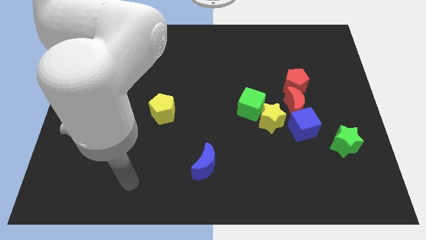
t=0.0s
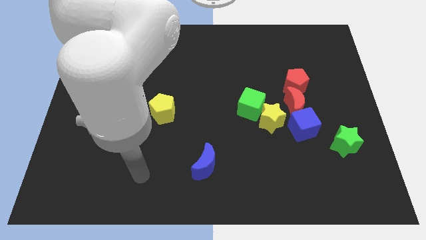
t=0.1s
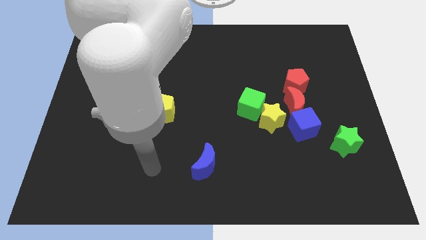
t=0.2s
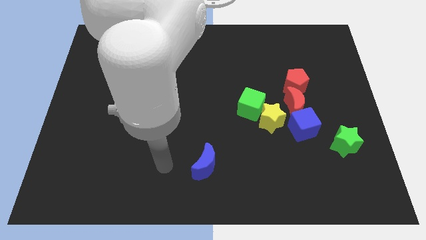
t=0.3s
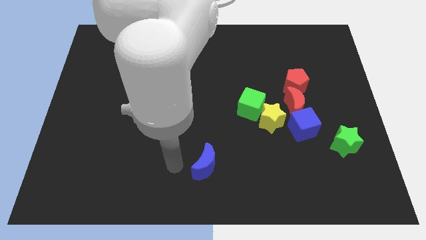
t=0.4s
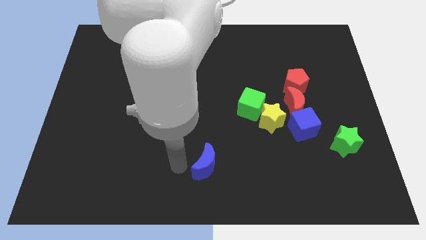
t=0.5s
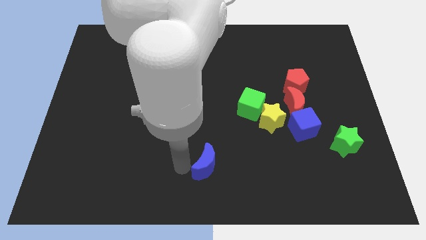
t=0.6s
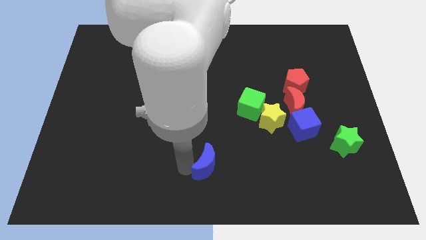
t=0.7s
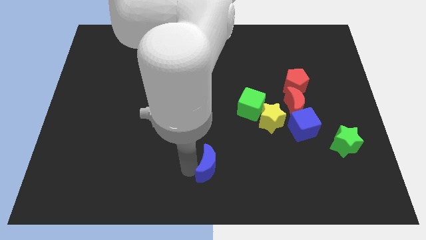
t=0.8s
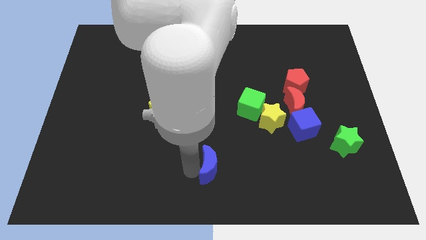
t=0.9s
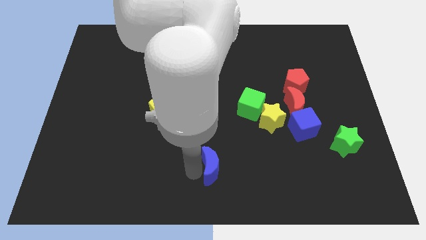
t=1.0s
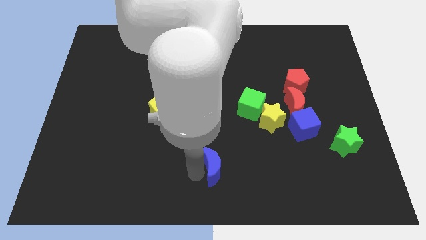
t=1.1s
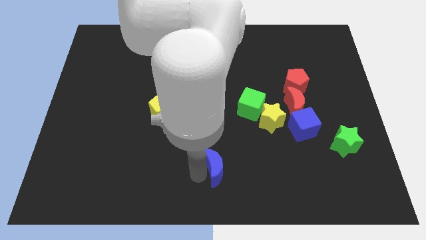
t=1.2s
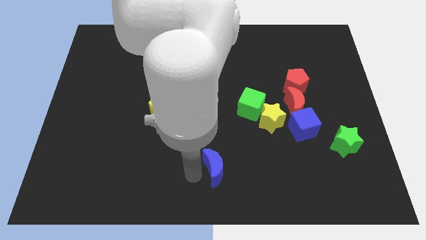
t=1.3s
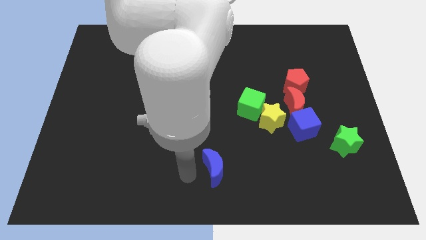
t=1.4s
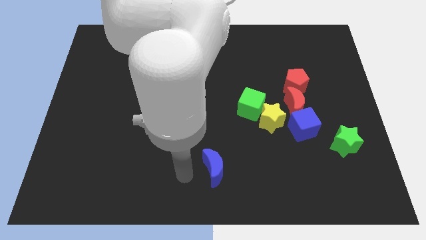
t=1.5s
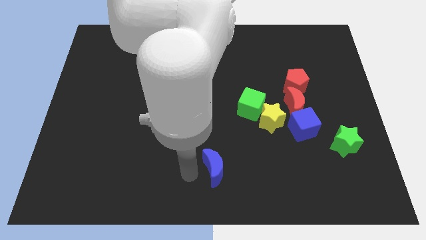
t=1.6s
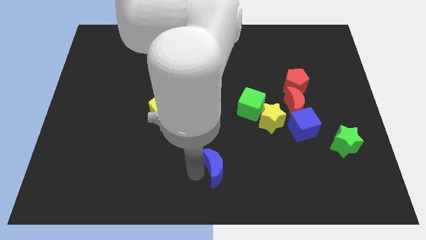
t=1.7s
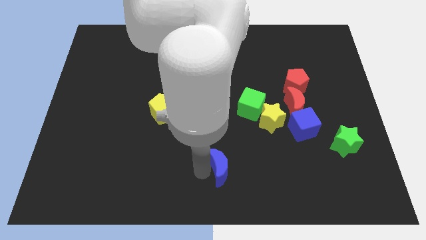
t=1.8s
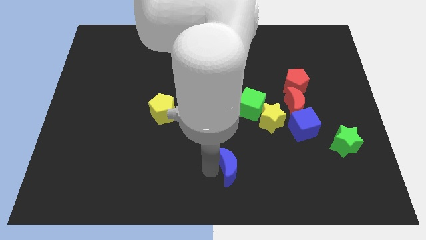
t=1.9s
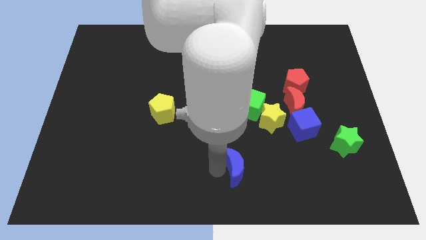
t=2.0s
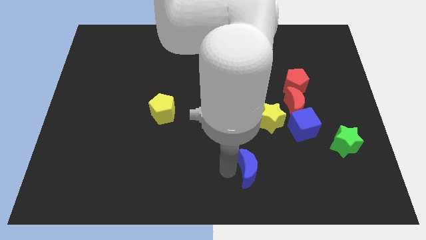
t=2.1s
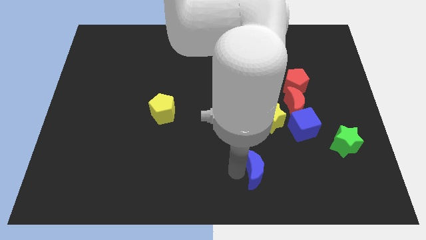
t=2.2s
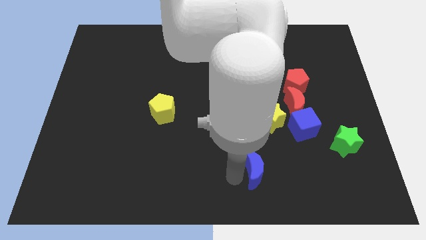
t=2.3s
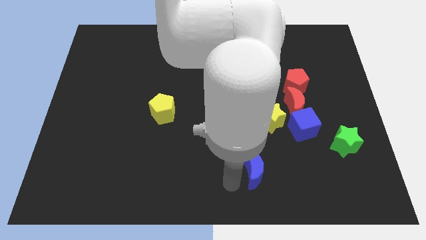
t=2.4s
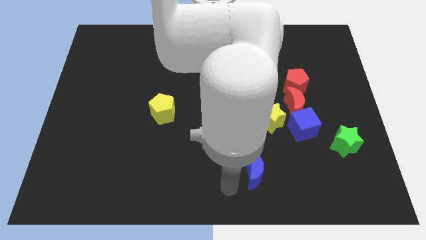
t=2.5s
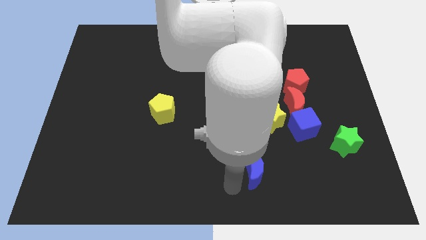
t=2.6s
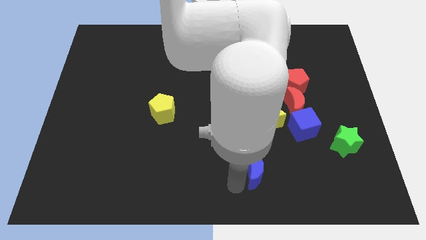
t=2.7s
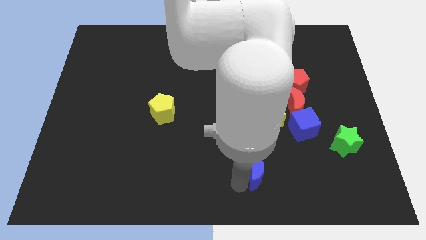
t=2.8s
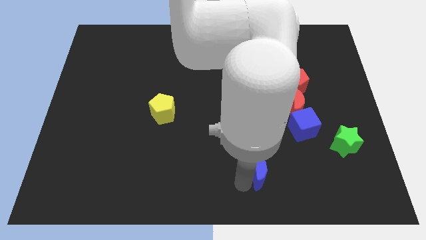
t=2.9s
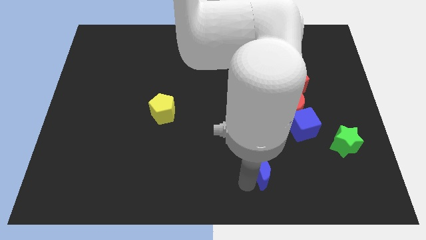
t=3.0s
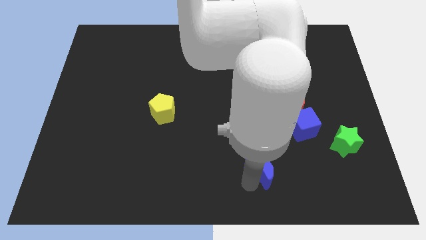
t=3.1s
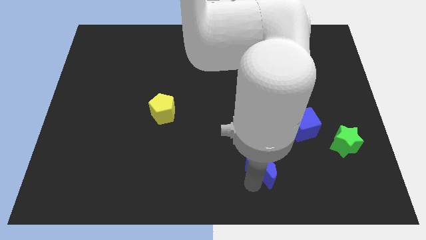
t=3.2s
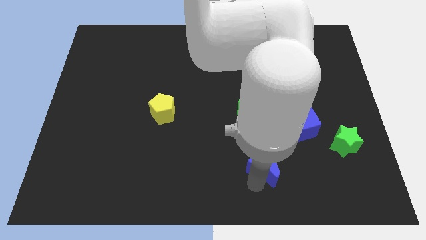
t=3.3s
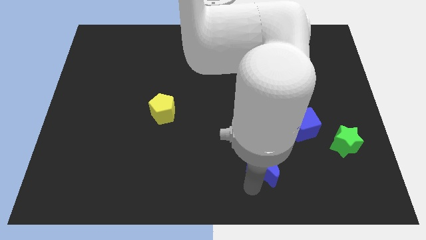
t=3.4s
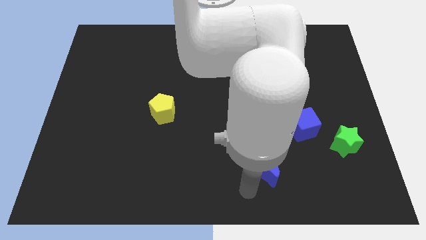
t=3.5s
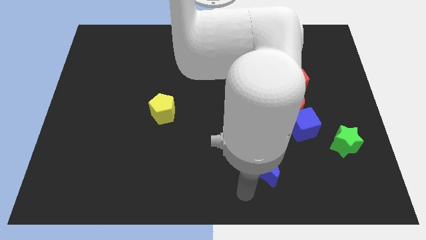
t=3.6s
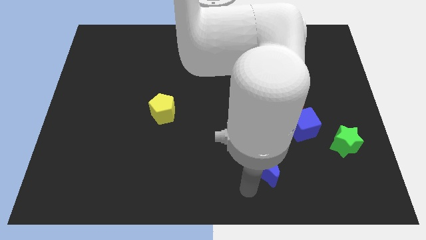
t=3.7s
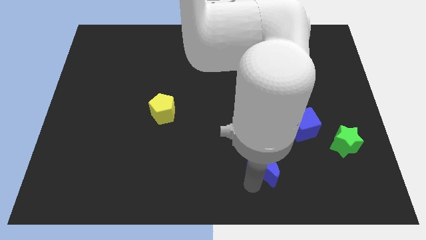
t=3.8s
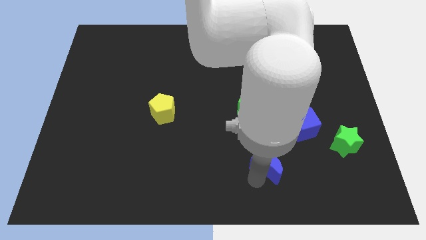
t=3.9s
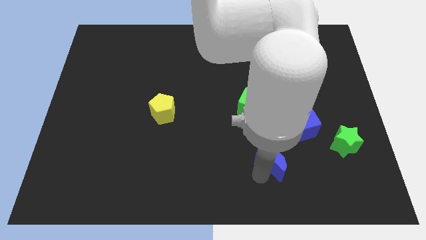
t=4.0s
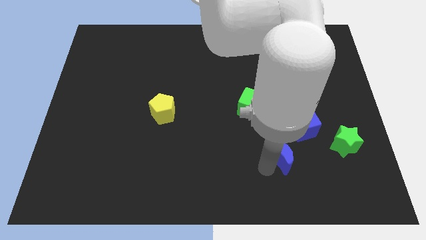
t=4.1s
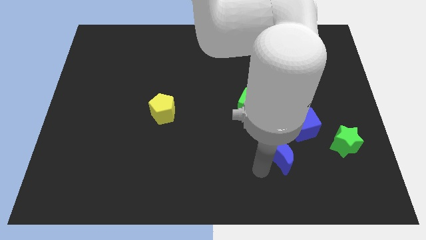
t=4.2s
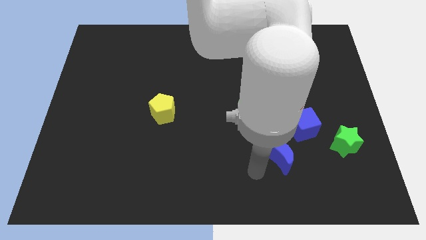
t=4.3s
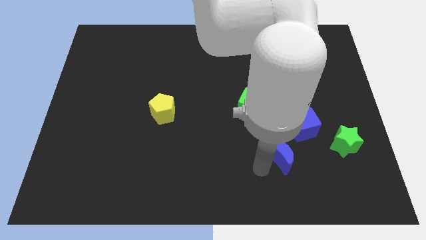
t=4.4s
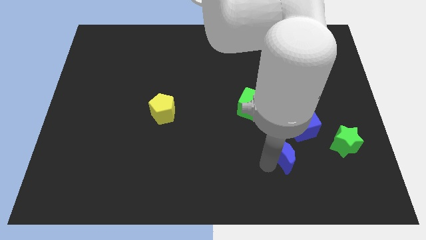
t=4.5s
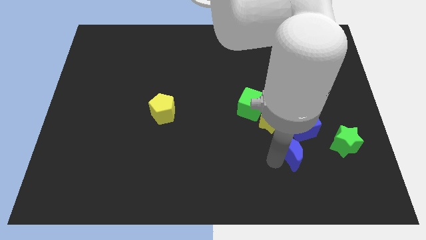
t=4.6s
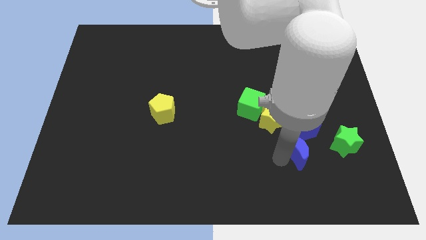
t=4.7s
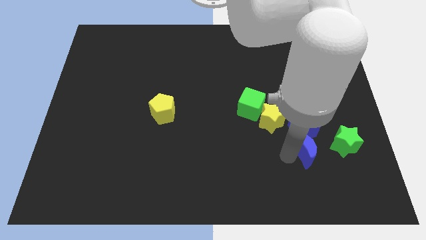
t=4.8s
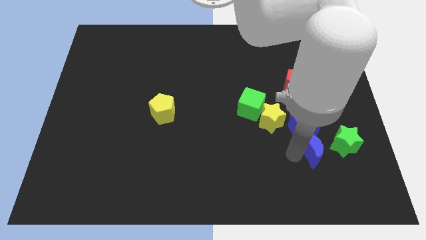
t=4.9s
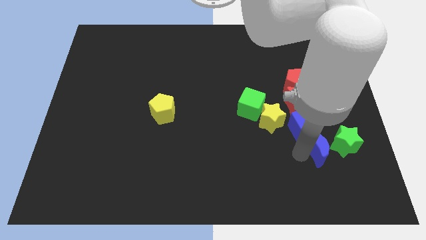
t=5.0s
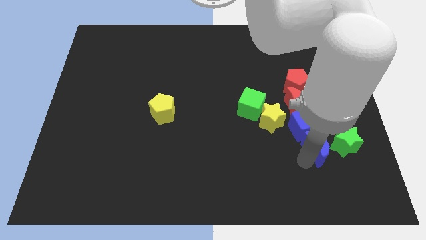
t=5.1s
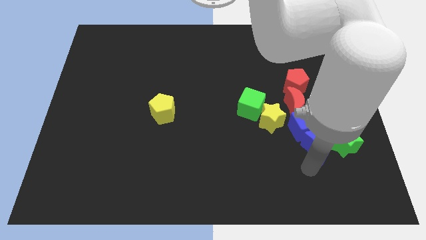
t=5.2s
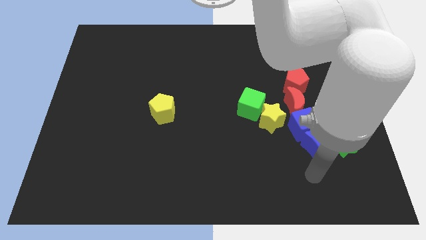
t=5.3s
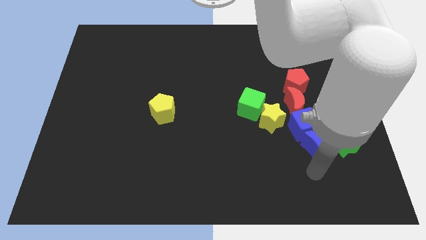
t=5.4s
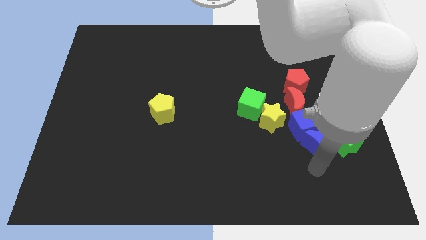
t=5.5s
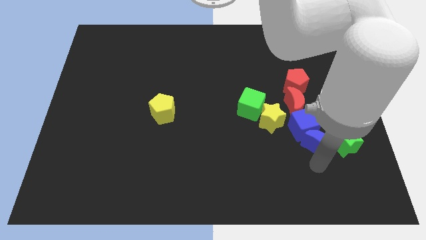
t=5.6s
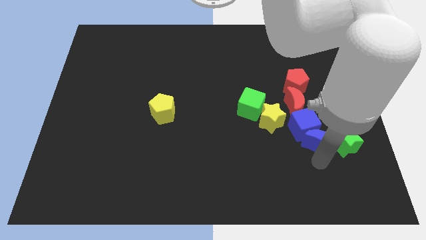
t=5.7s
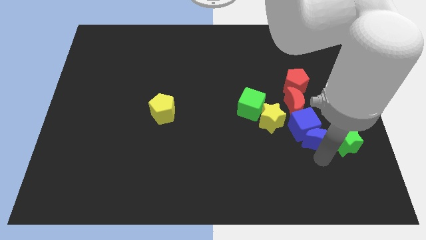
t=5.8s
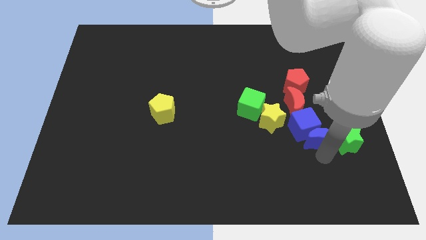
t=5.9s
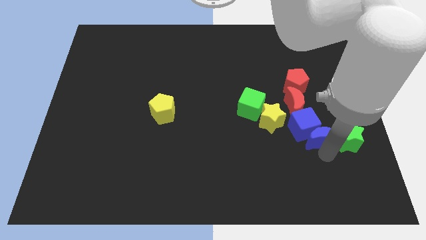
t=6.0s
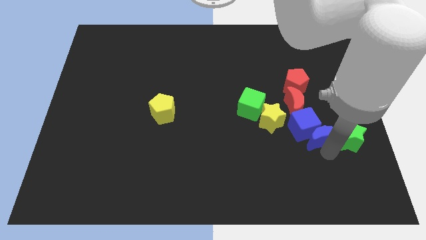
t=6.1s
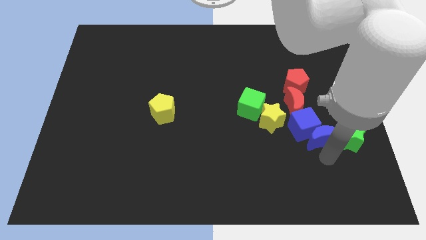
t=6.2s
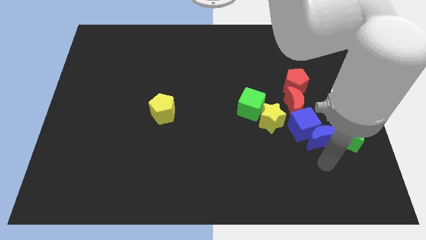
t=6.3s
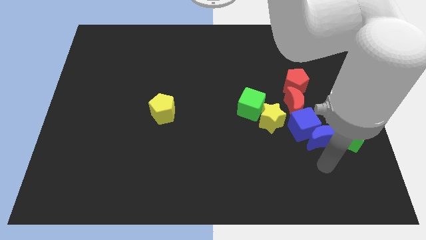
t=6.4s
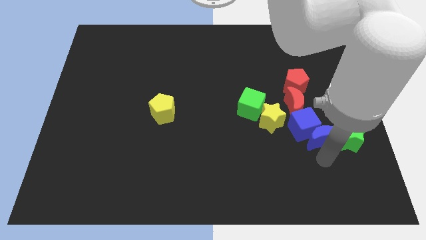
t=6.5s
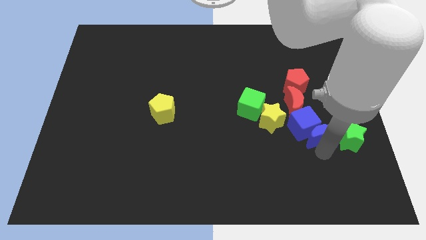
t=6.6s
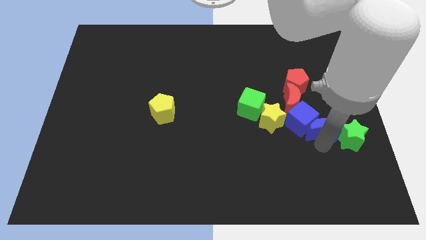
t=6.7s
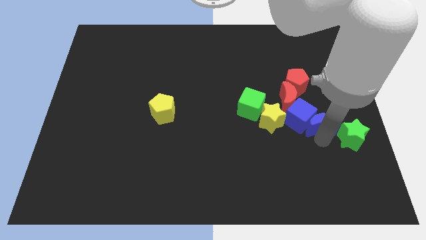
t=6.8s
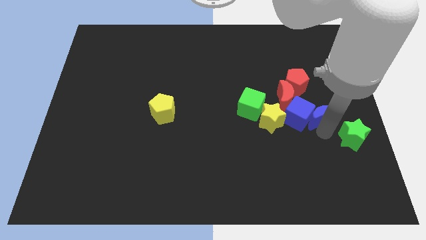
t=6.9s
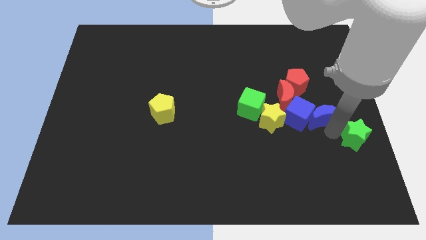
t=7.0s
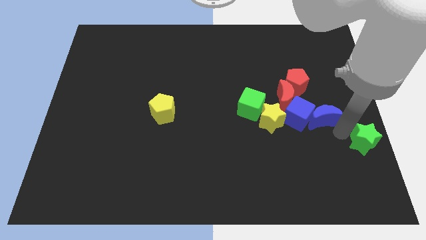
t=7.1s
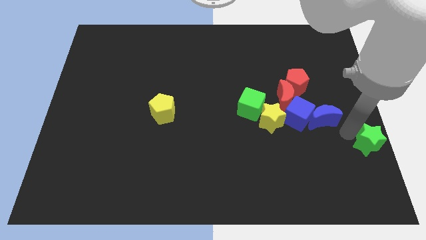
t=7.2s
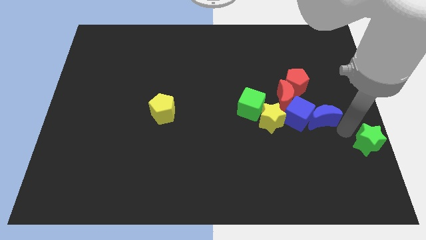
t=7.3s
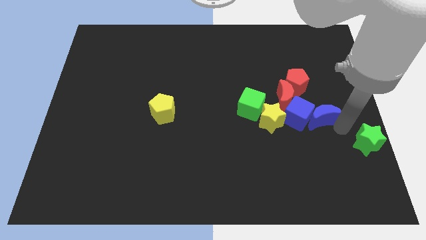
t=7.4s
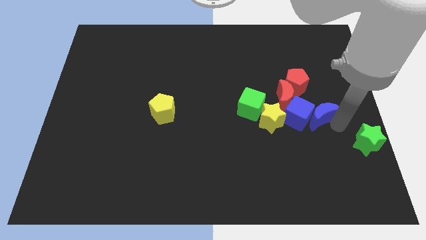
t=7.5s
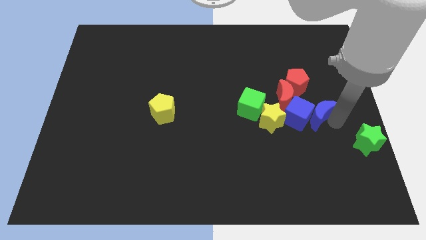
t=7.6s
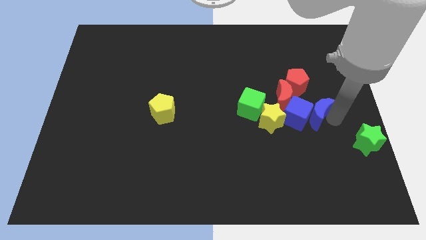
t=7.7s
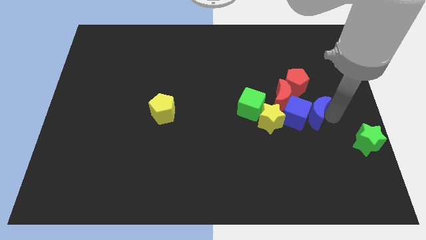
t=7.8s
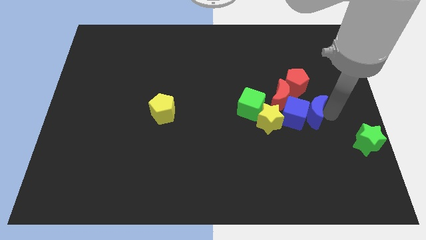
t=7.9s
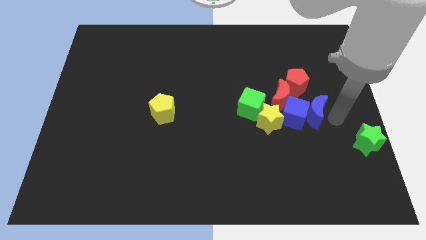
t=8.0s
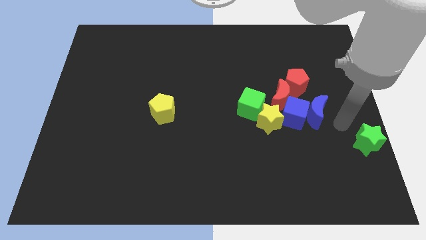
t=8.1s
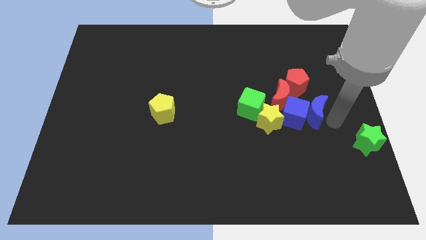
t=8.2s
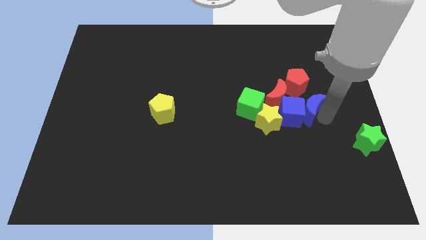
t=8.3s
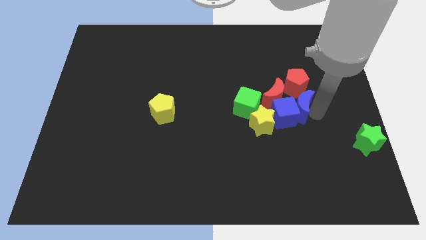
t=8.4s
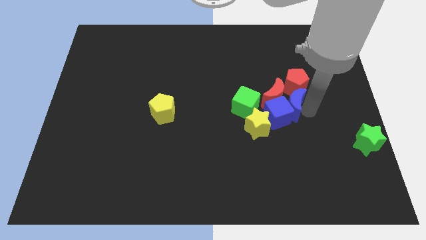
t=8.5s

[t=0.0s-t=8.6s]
move the blue moon next to the red moon
